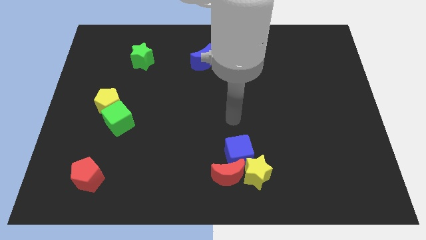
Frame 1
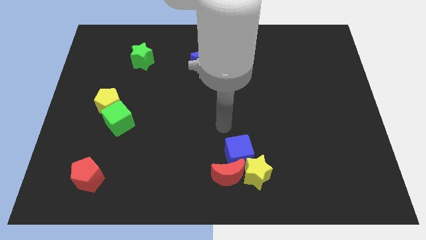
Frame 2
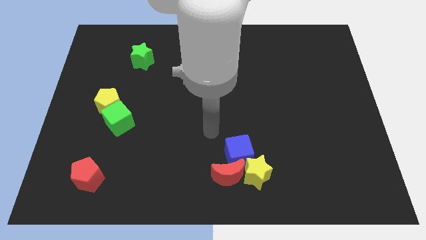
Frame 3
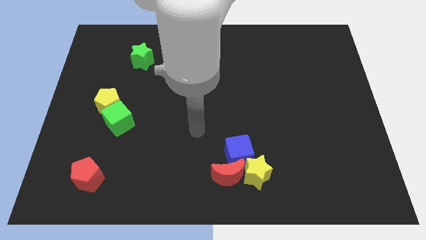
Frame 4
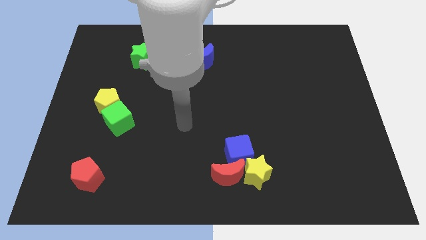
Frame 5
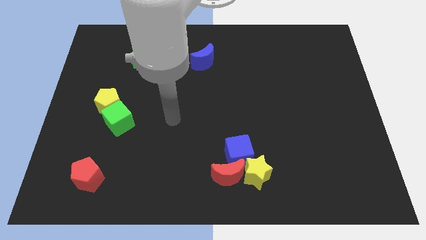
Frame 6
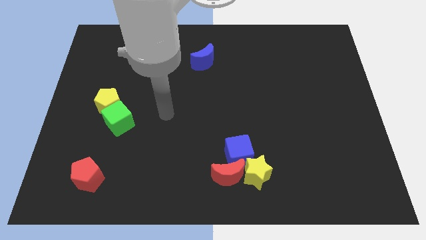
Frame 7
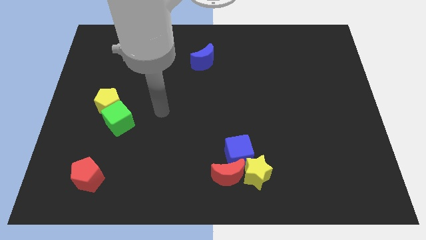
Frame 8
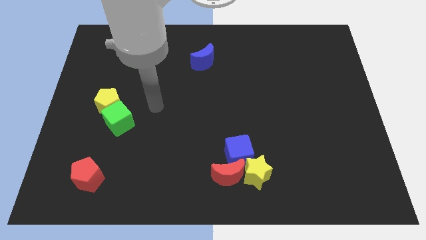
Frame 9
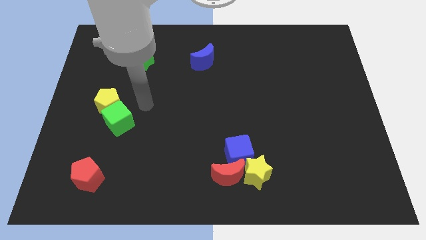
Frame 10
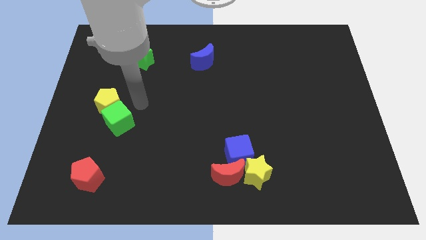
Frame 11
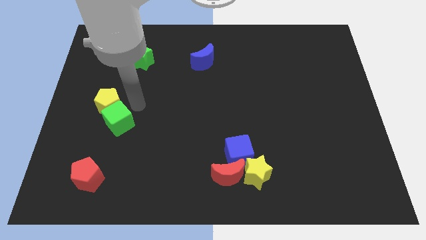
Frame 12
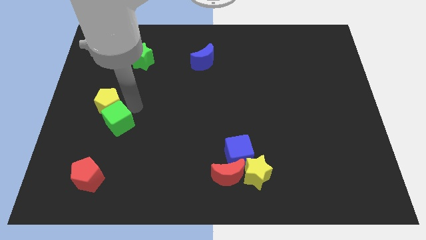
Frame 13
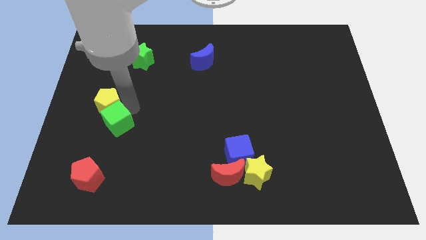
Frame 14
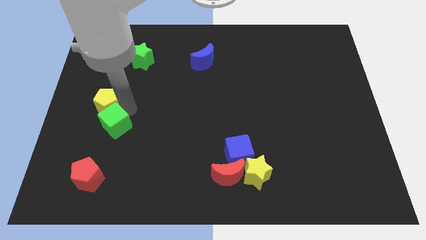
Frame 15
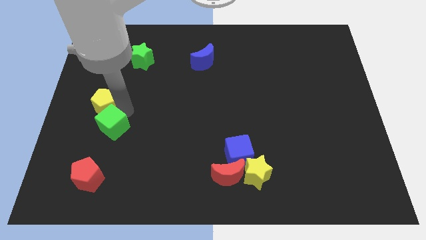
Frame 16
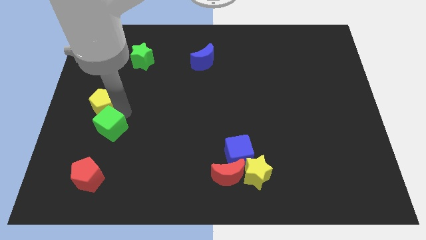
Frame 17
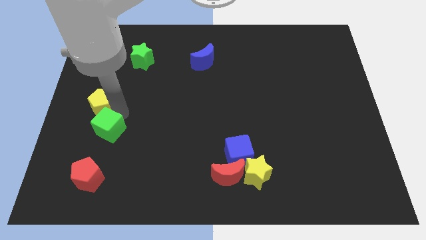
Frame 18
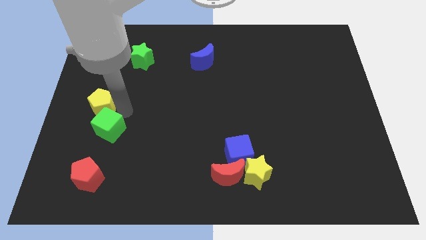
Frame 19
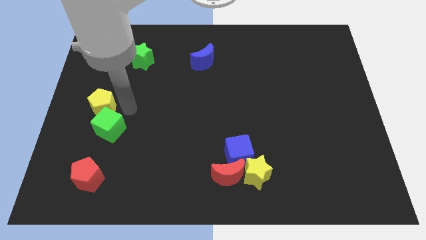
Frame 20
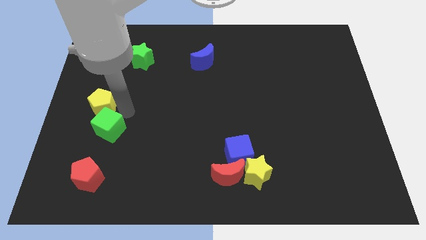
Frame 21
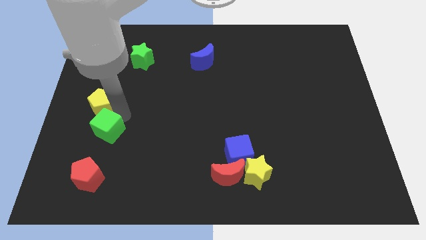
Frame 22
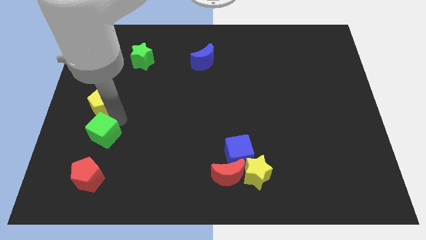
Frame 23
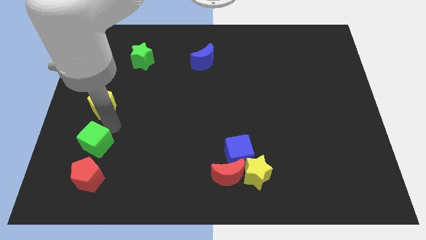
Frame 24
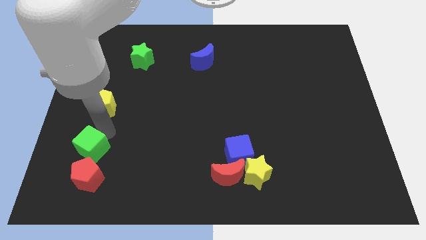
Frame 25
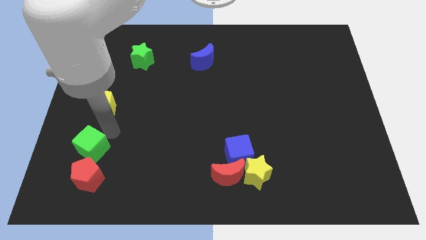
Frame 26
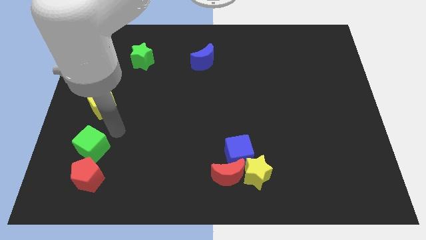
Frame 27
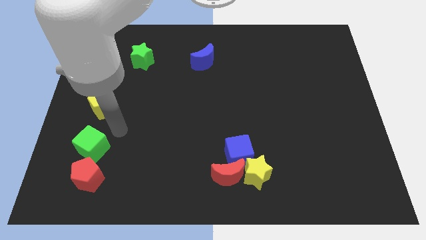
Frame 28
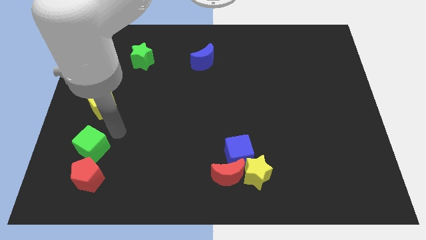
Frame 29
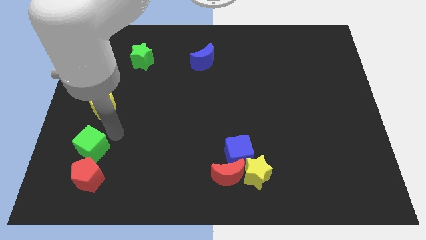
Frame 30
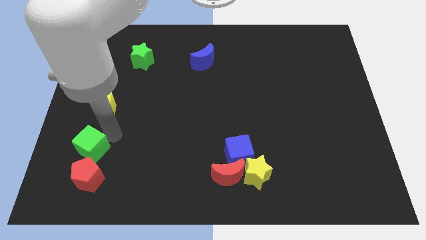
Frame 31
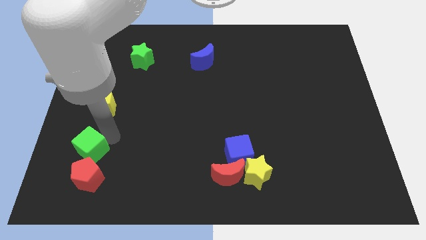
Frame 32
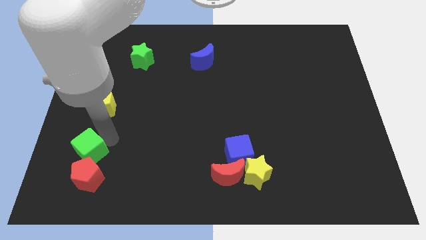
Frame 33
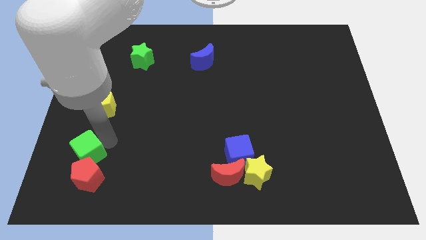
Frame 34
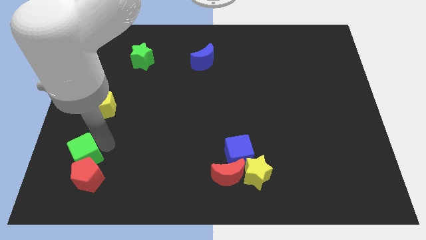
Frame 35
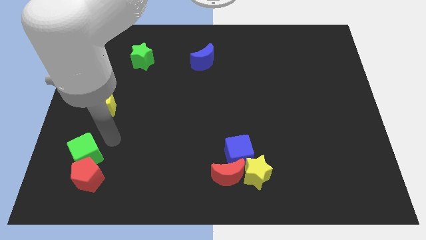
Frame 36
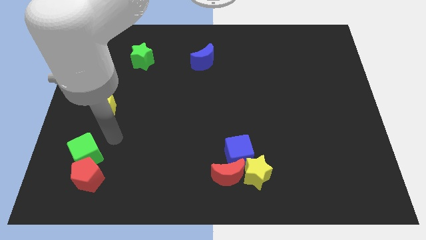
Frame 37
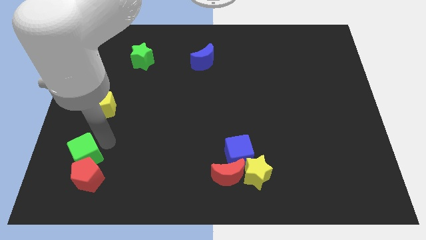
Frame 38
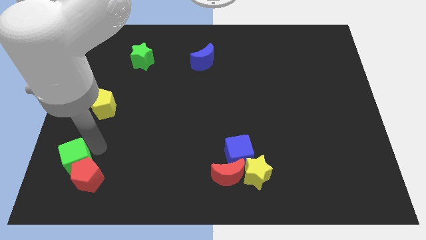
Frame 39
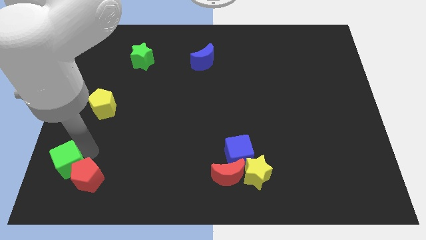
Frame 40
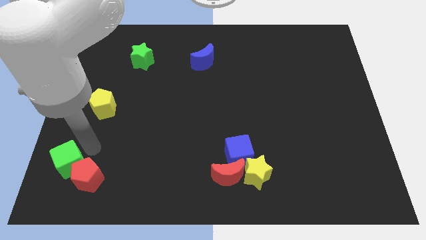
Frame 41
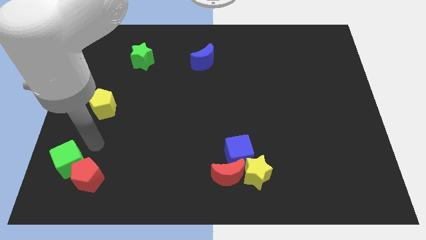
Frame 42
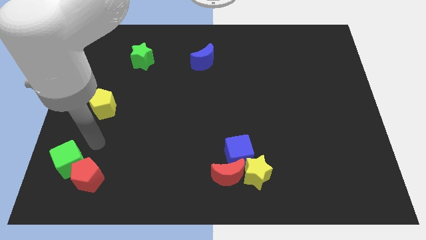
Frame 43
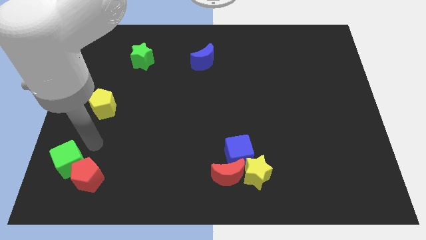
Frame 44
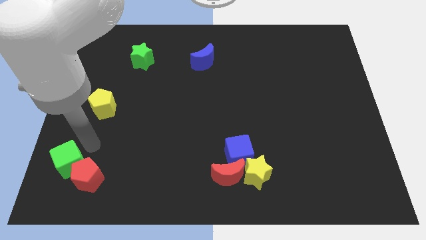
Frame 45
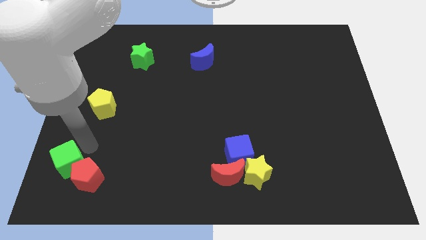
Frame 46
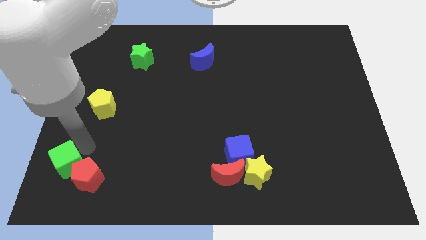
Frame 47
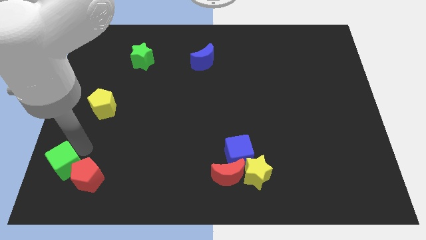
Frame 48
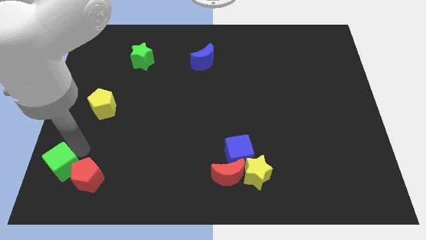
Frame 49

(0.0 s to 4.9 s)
put the green cube to the bottom left

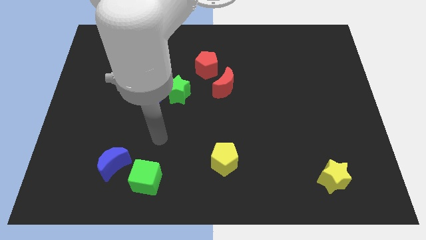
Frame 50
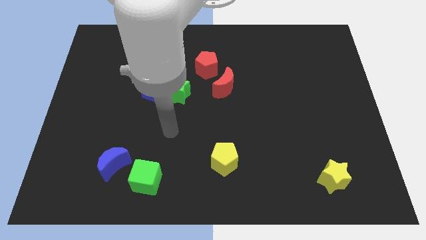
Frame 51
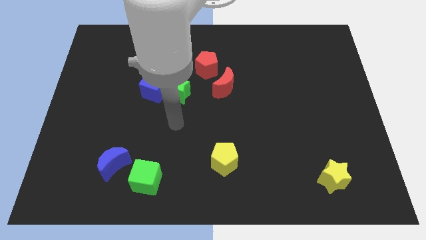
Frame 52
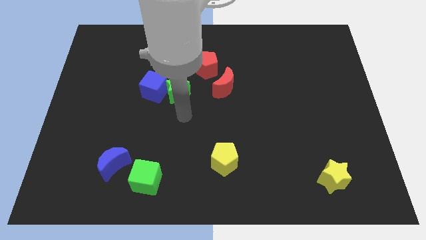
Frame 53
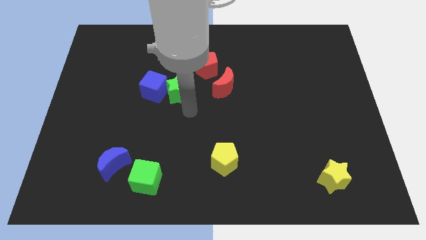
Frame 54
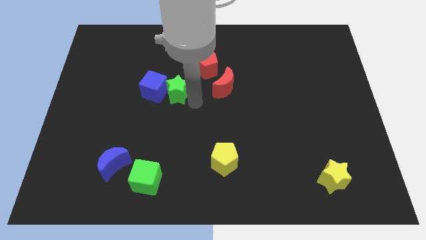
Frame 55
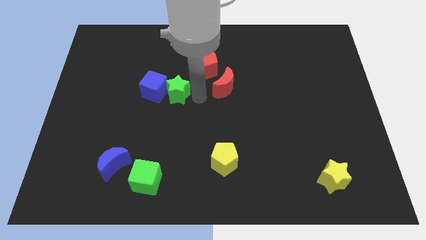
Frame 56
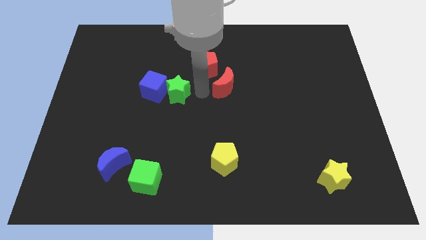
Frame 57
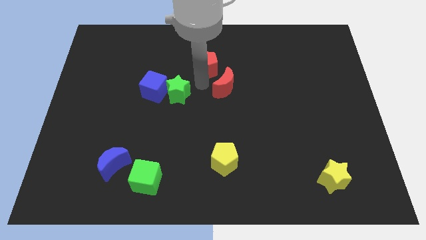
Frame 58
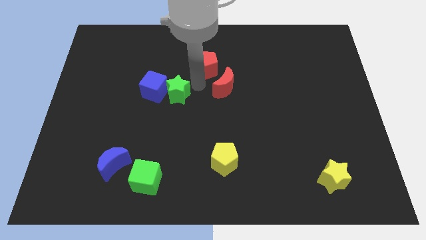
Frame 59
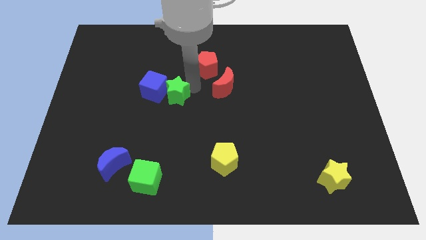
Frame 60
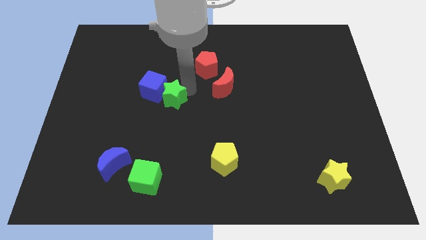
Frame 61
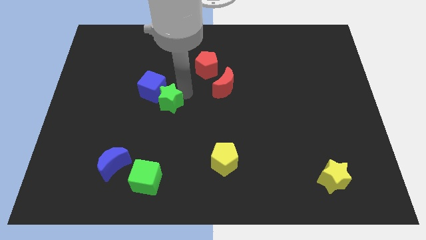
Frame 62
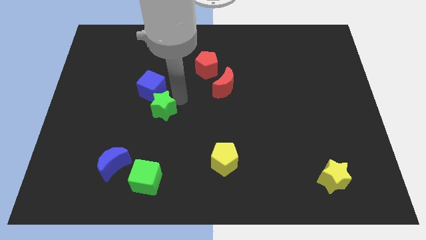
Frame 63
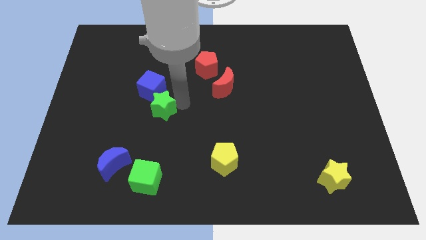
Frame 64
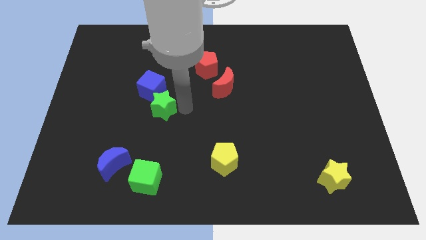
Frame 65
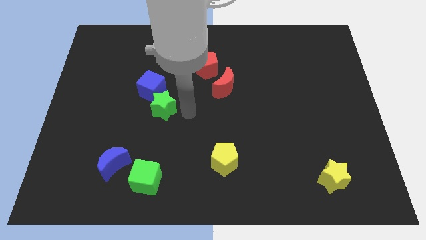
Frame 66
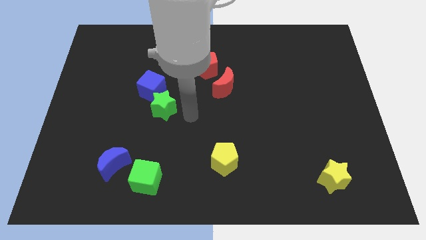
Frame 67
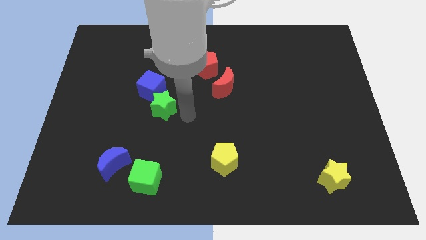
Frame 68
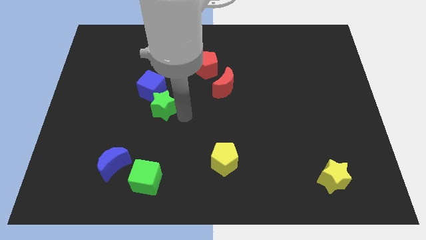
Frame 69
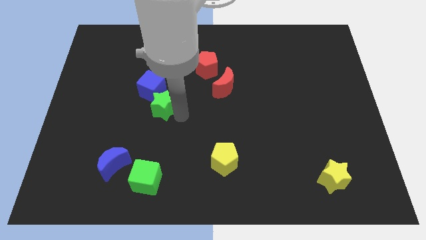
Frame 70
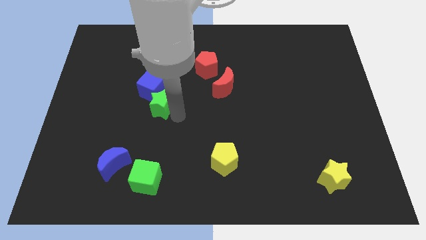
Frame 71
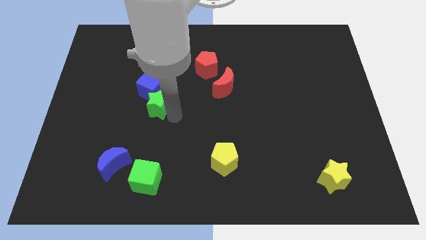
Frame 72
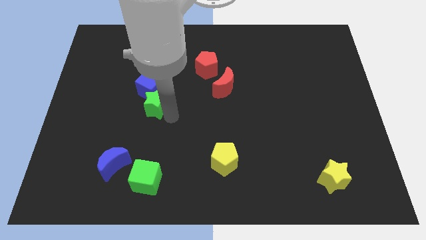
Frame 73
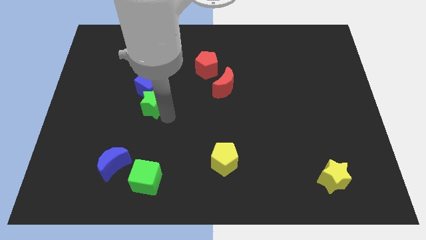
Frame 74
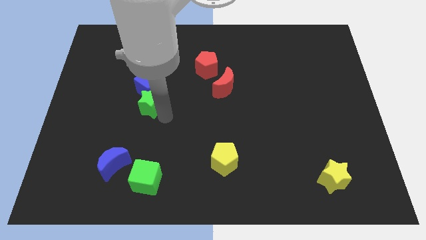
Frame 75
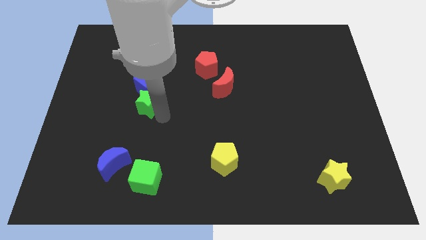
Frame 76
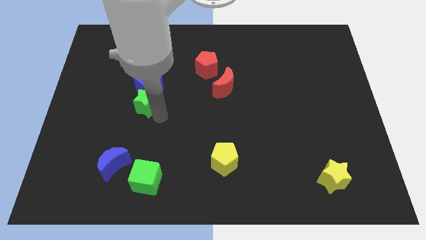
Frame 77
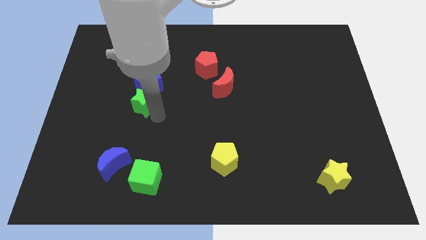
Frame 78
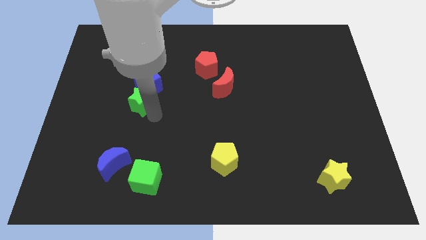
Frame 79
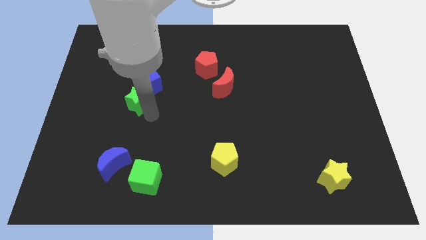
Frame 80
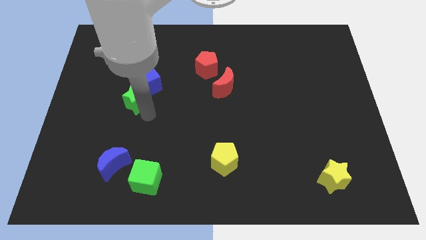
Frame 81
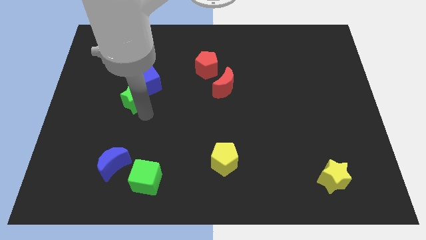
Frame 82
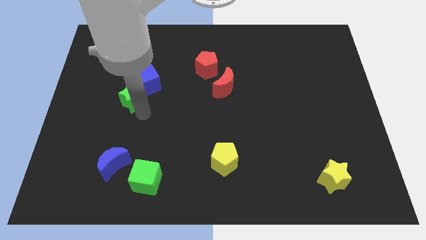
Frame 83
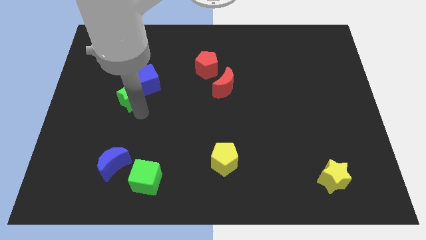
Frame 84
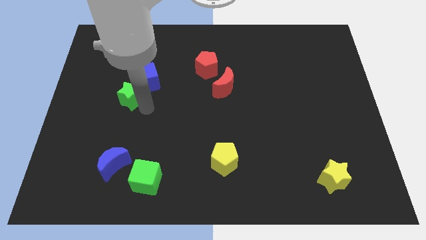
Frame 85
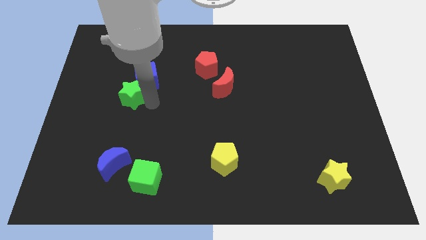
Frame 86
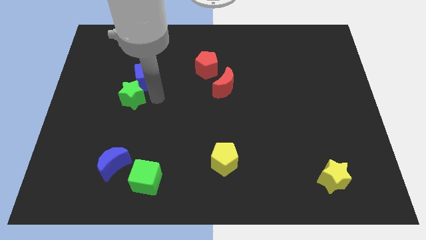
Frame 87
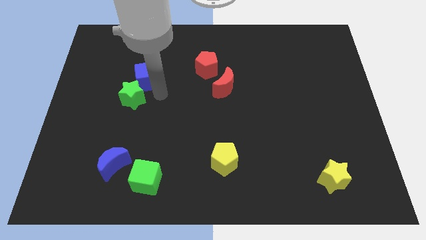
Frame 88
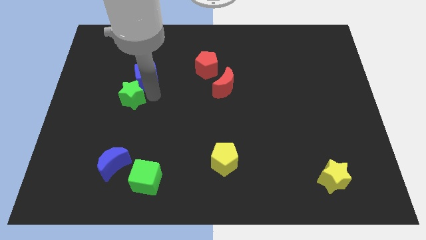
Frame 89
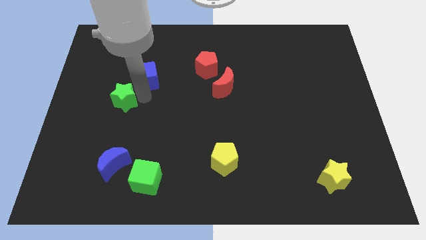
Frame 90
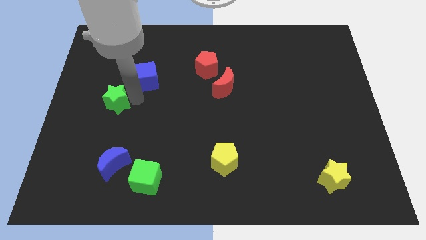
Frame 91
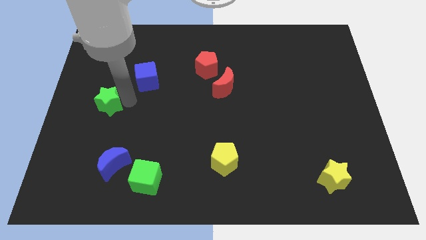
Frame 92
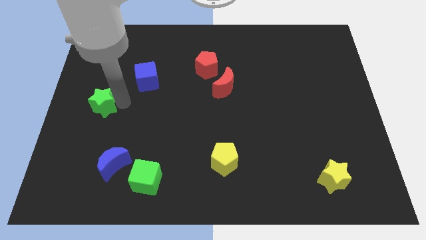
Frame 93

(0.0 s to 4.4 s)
push the green star to the center left
